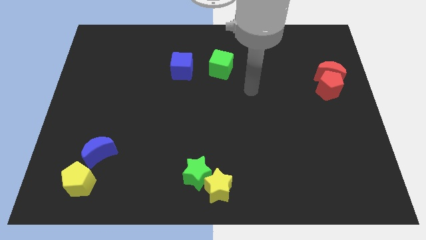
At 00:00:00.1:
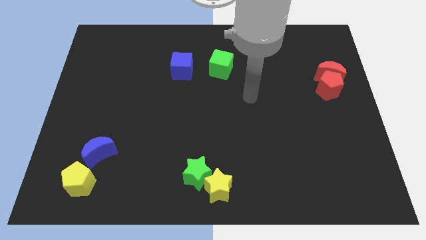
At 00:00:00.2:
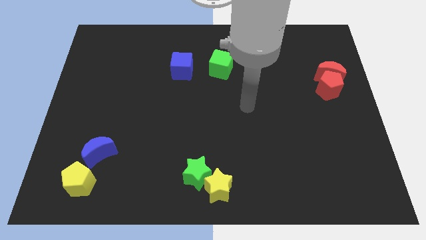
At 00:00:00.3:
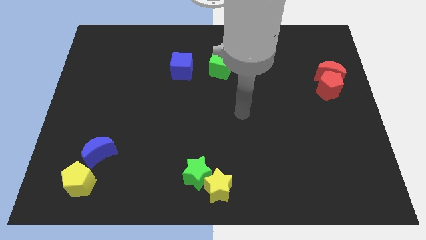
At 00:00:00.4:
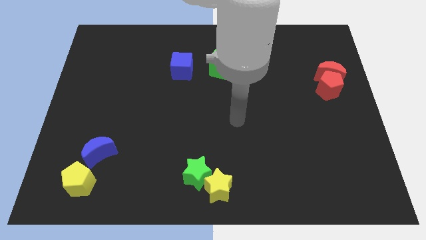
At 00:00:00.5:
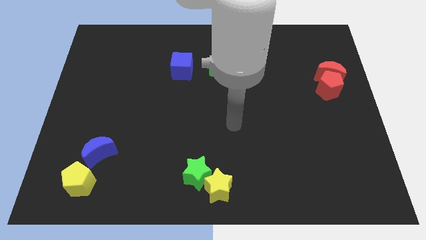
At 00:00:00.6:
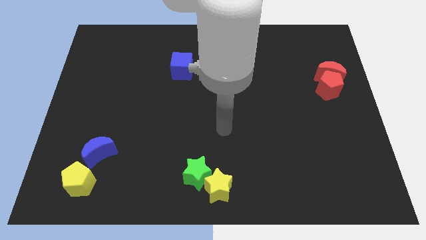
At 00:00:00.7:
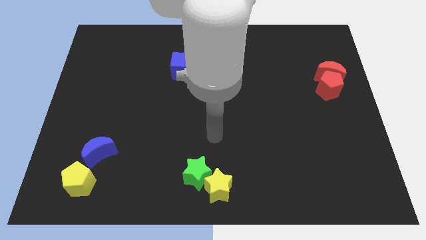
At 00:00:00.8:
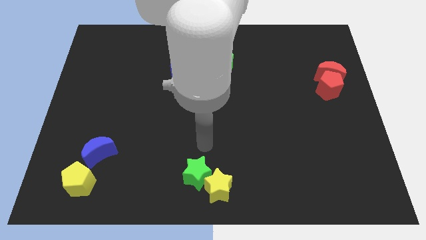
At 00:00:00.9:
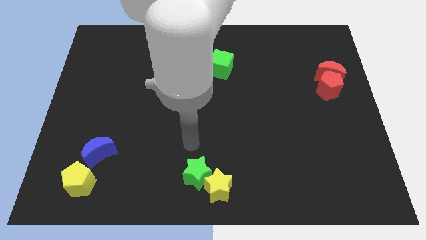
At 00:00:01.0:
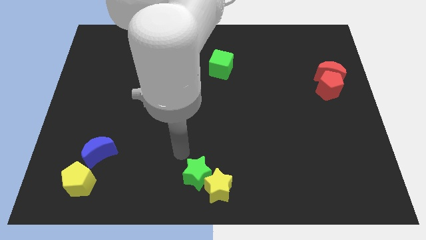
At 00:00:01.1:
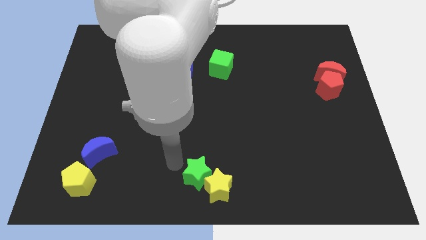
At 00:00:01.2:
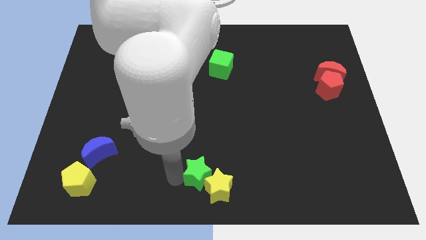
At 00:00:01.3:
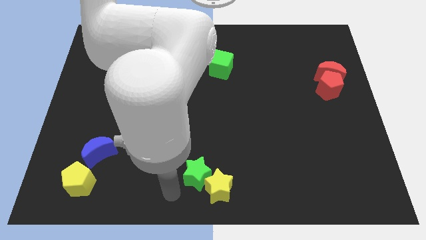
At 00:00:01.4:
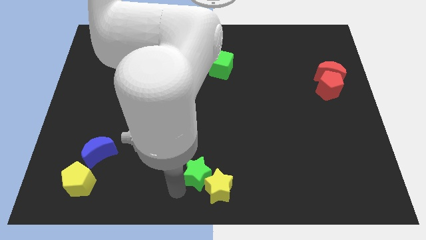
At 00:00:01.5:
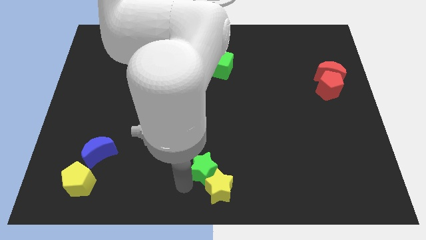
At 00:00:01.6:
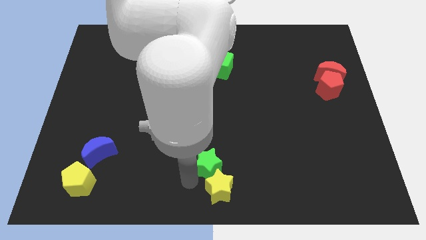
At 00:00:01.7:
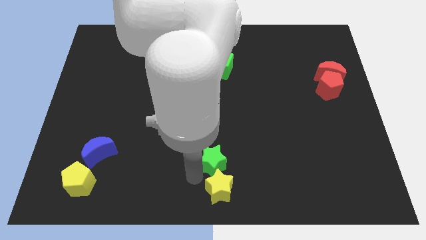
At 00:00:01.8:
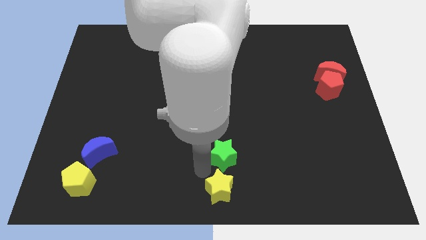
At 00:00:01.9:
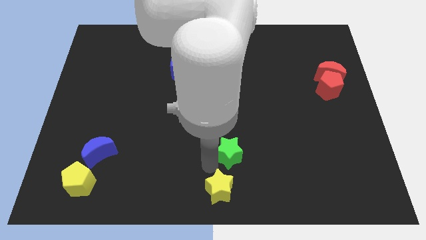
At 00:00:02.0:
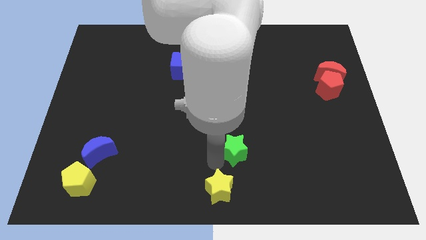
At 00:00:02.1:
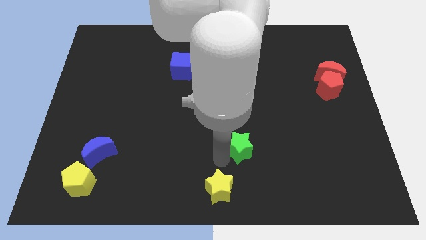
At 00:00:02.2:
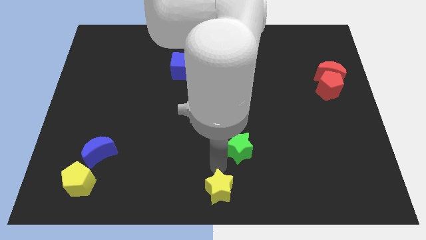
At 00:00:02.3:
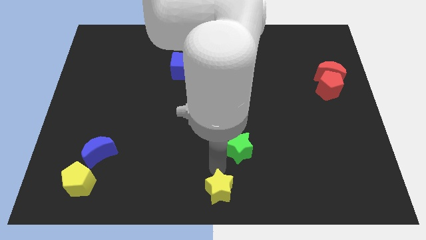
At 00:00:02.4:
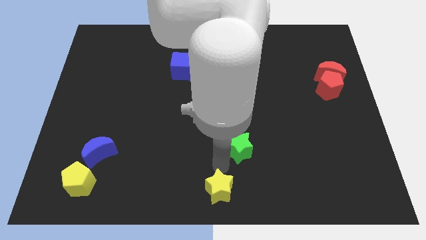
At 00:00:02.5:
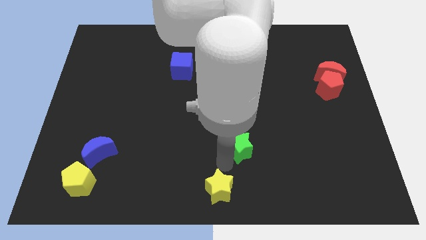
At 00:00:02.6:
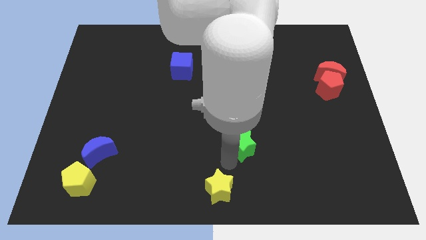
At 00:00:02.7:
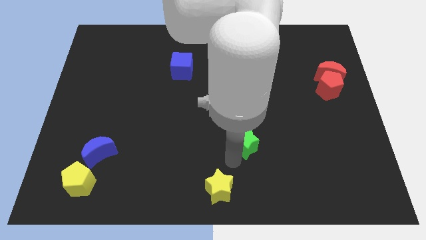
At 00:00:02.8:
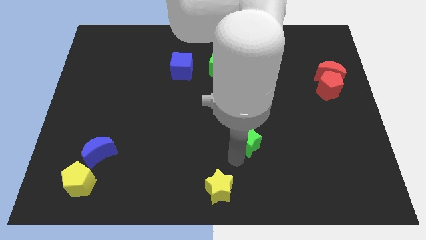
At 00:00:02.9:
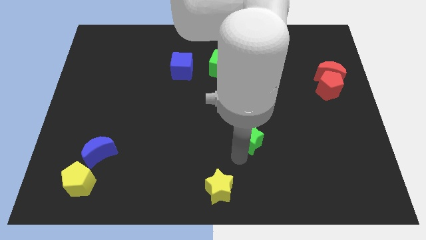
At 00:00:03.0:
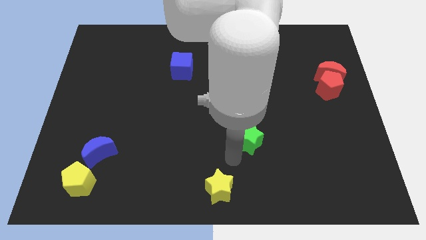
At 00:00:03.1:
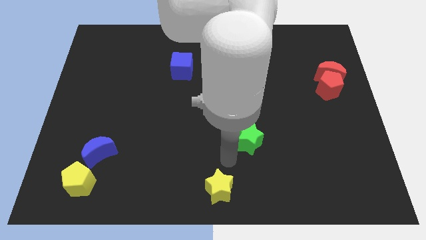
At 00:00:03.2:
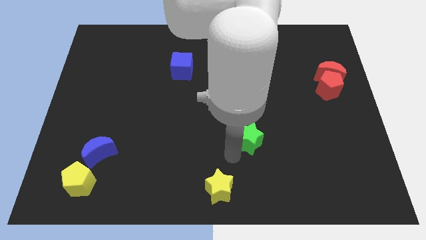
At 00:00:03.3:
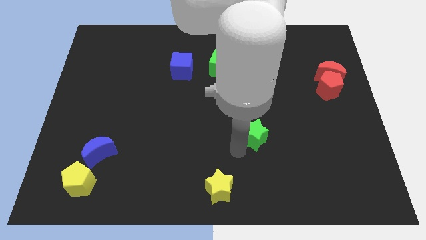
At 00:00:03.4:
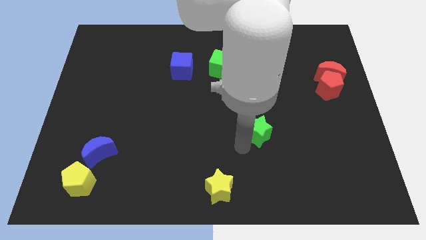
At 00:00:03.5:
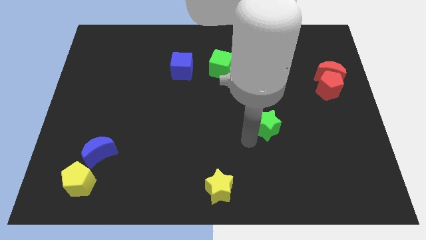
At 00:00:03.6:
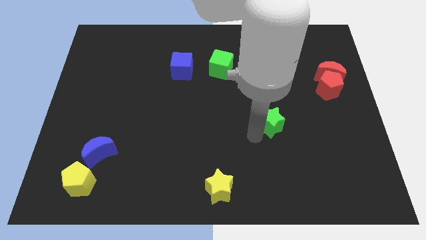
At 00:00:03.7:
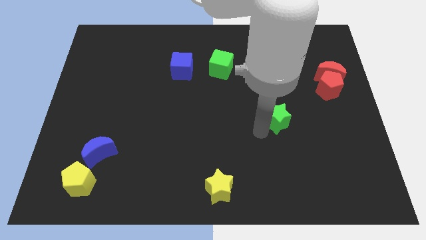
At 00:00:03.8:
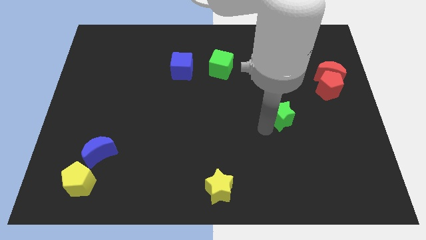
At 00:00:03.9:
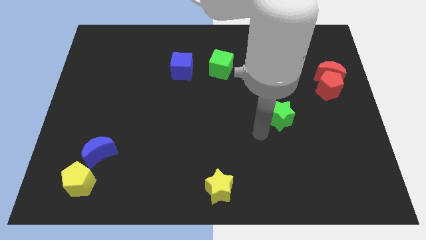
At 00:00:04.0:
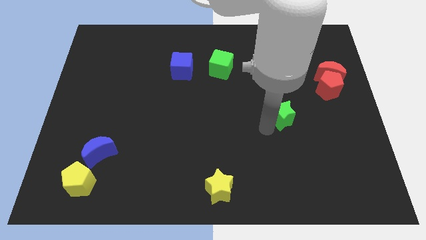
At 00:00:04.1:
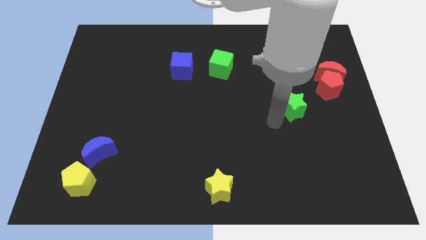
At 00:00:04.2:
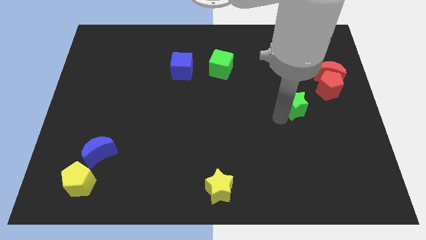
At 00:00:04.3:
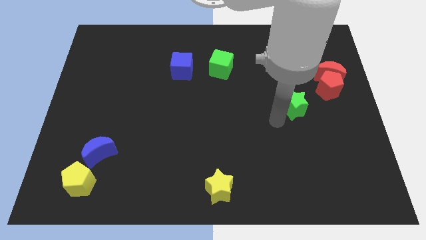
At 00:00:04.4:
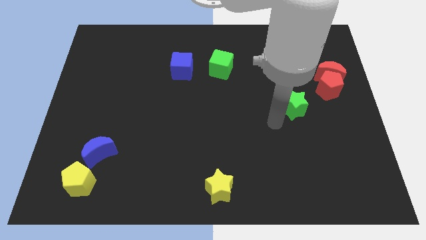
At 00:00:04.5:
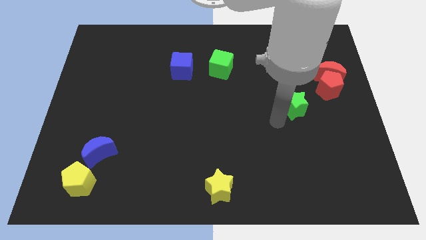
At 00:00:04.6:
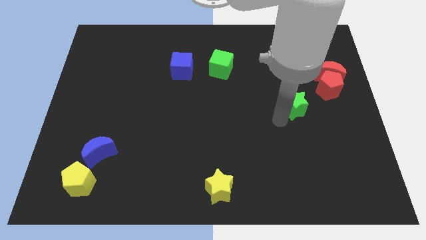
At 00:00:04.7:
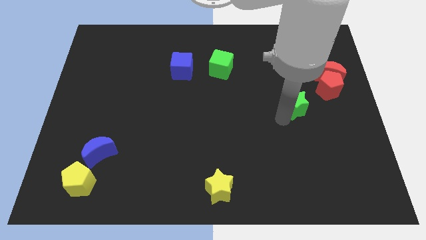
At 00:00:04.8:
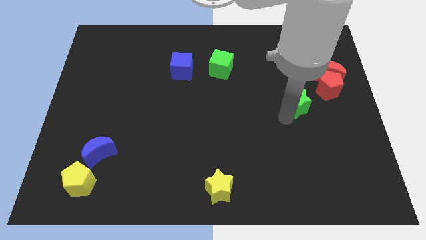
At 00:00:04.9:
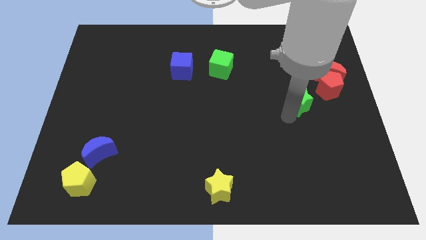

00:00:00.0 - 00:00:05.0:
move the green star to the bottom left of the red moon

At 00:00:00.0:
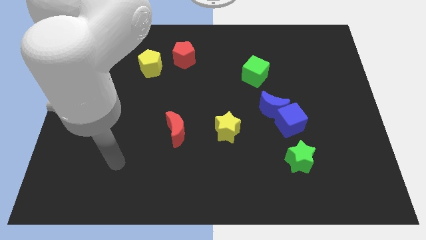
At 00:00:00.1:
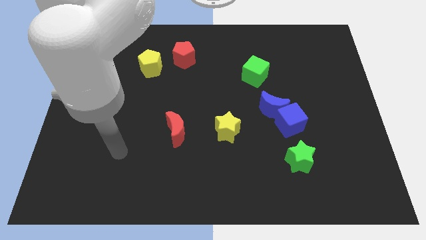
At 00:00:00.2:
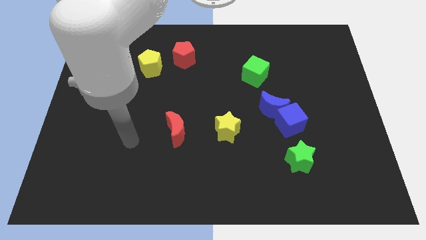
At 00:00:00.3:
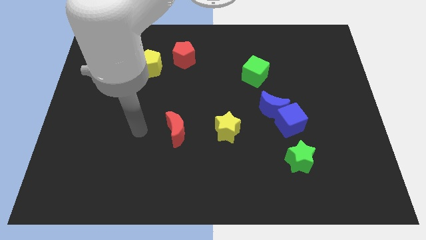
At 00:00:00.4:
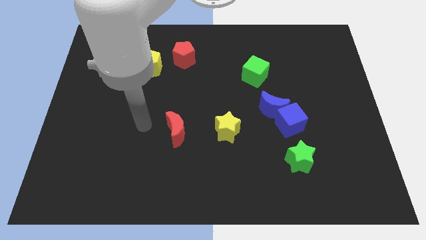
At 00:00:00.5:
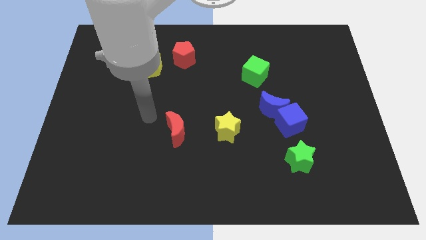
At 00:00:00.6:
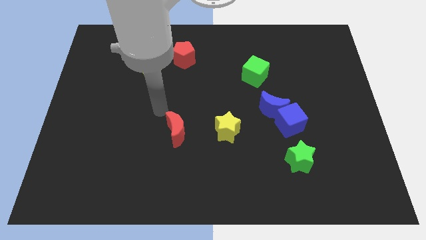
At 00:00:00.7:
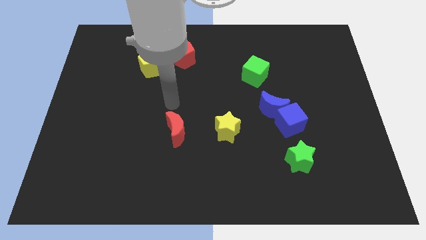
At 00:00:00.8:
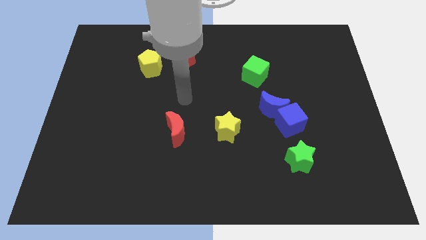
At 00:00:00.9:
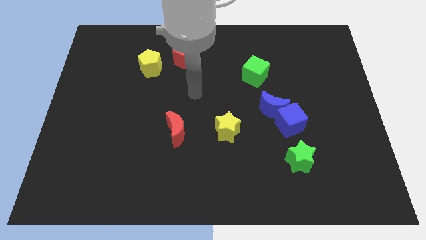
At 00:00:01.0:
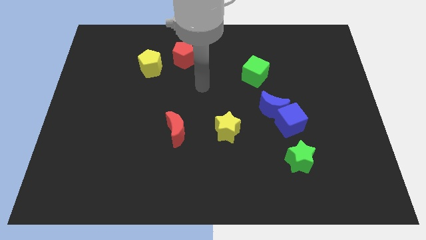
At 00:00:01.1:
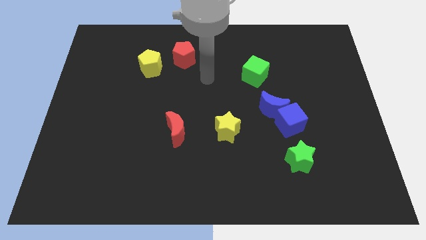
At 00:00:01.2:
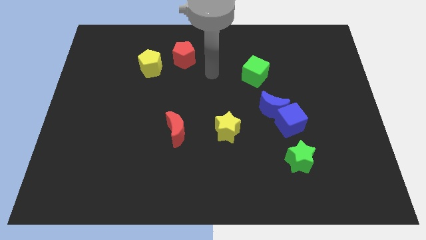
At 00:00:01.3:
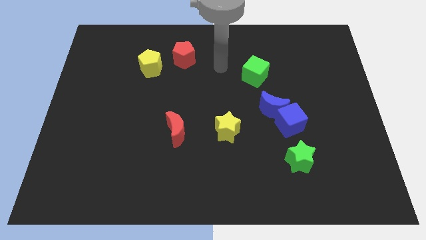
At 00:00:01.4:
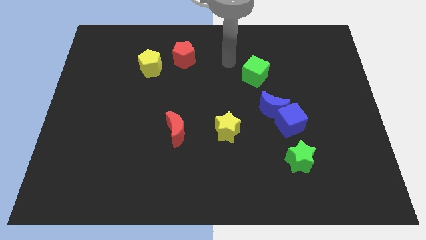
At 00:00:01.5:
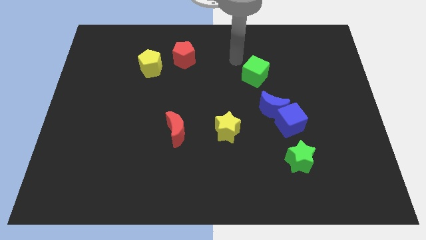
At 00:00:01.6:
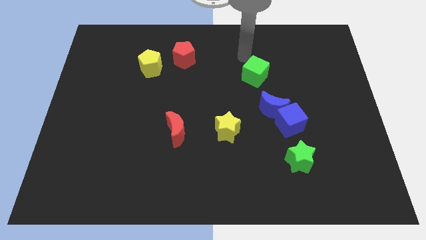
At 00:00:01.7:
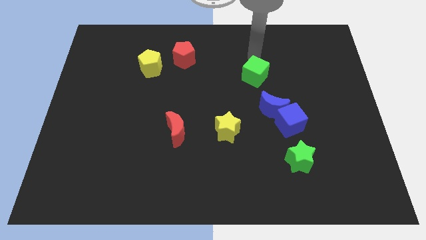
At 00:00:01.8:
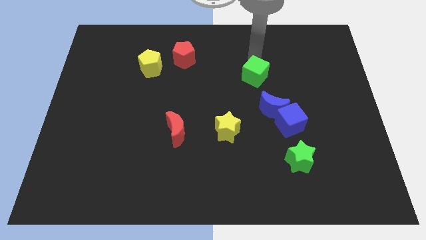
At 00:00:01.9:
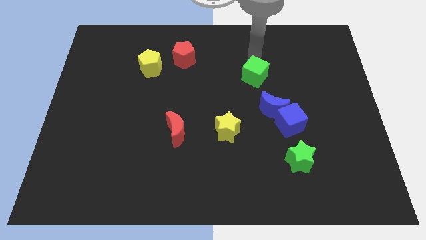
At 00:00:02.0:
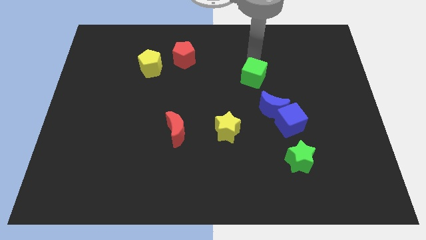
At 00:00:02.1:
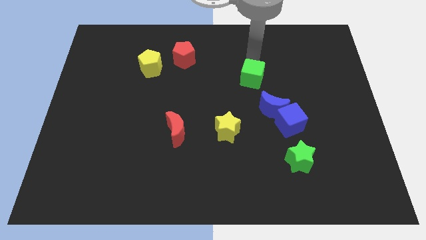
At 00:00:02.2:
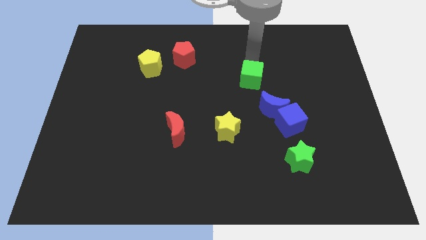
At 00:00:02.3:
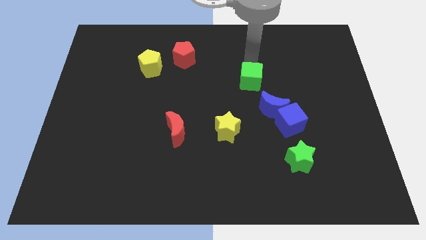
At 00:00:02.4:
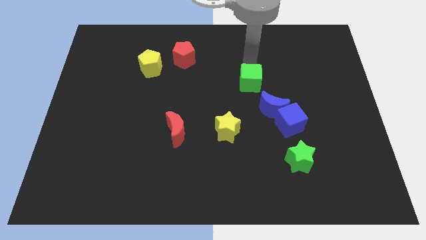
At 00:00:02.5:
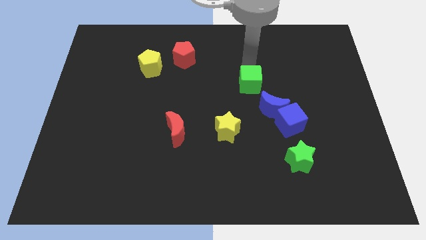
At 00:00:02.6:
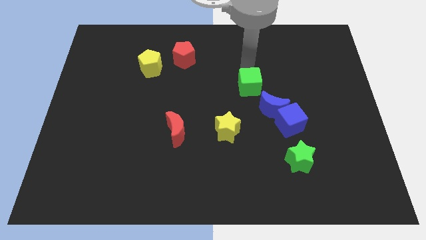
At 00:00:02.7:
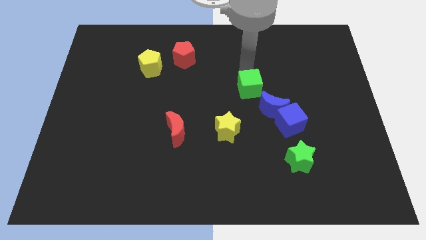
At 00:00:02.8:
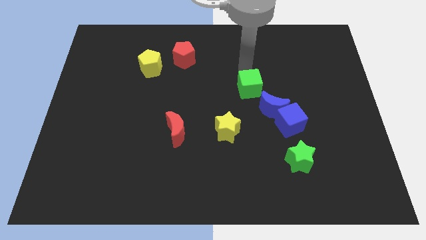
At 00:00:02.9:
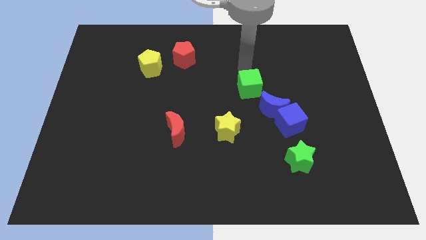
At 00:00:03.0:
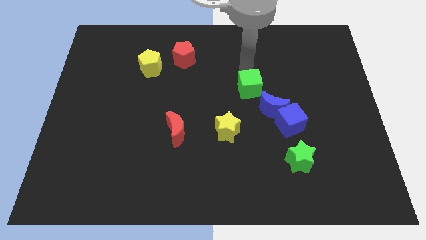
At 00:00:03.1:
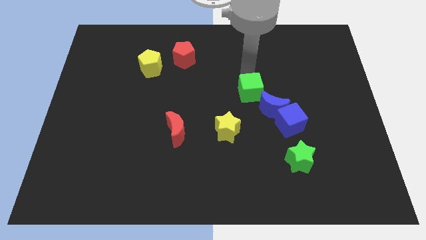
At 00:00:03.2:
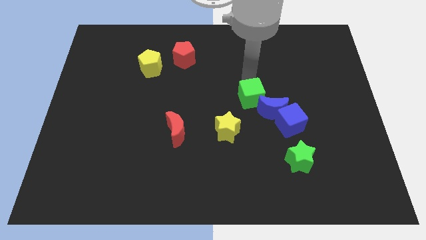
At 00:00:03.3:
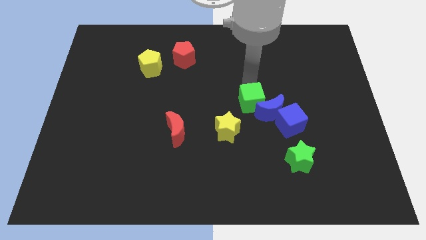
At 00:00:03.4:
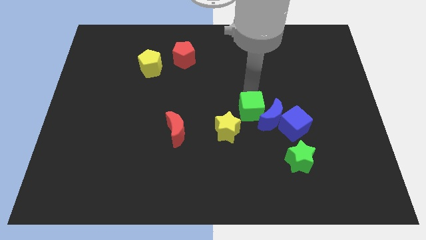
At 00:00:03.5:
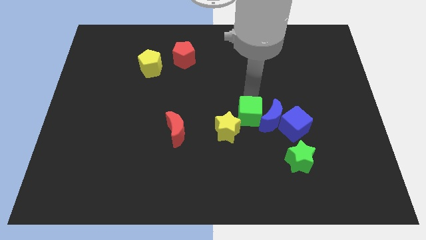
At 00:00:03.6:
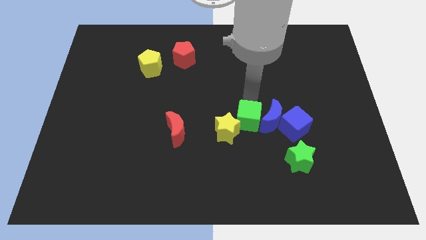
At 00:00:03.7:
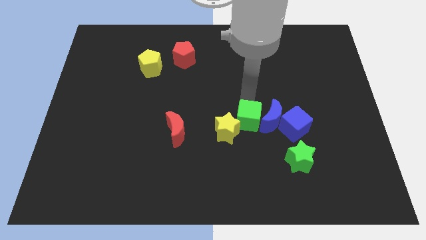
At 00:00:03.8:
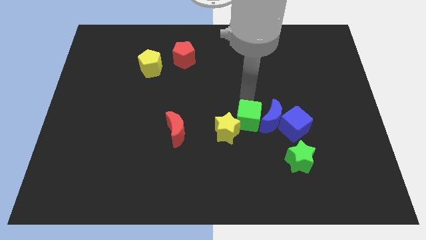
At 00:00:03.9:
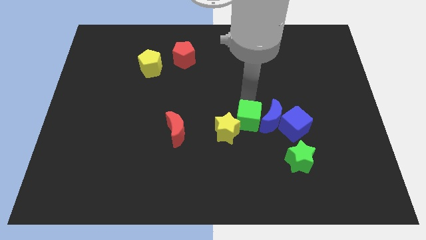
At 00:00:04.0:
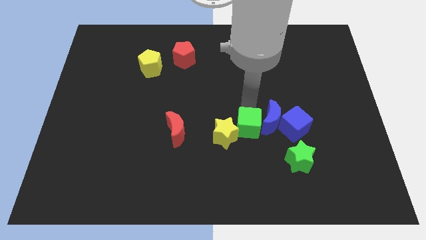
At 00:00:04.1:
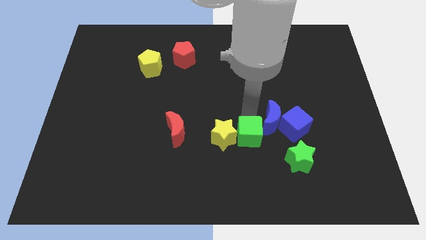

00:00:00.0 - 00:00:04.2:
push the green cube diagonally down and to the right of the yellow star
